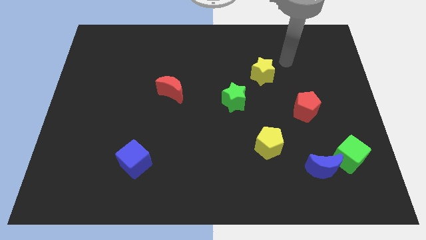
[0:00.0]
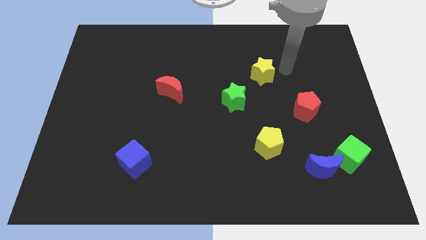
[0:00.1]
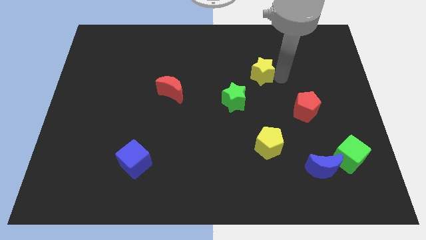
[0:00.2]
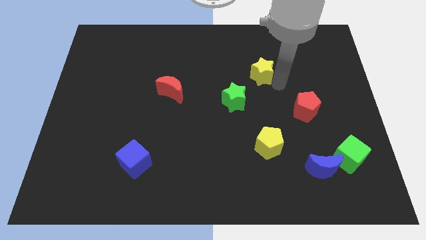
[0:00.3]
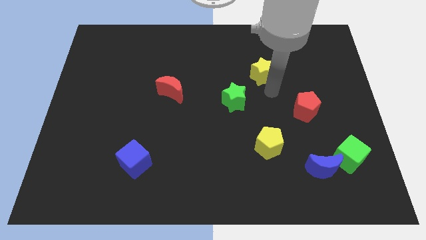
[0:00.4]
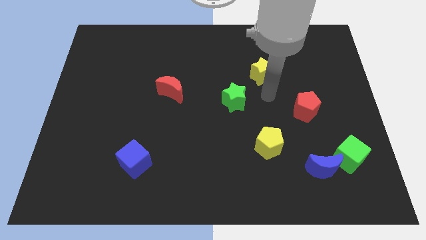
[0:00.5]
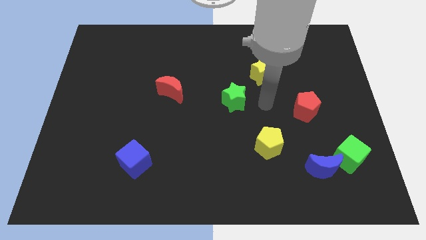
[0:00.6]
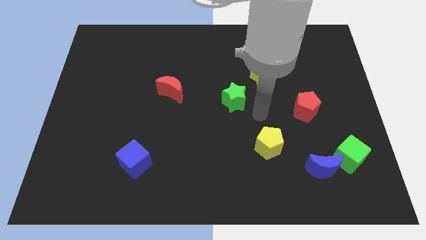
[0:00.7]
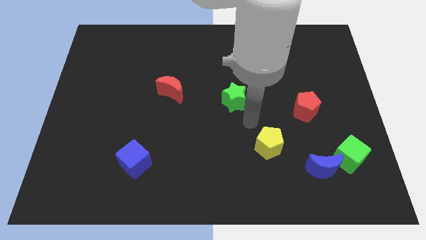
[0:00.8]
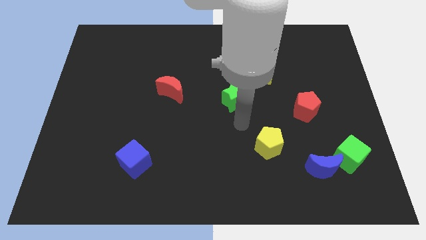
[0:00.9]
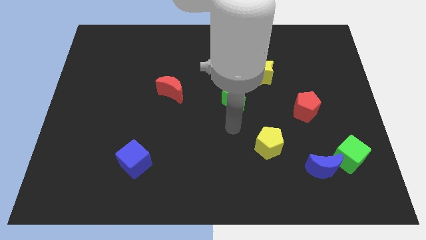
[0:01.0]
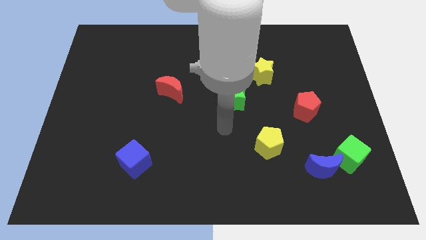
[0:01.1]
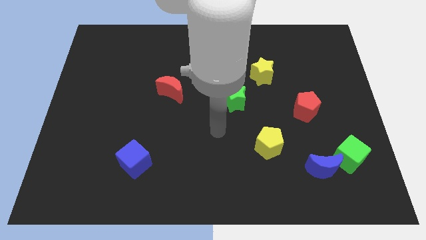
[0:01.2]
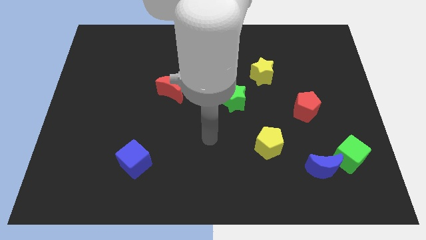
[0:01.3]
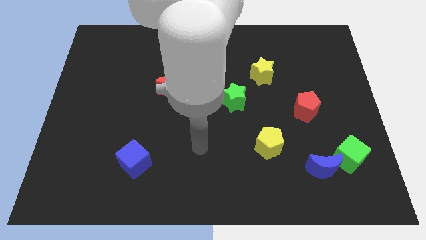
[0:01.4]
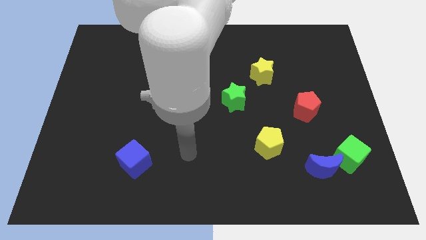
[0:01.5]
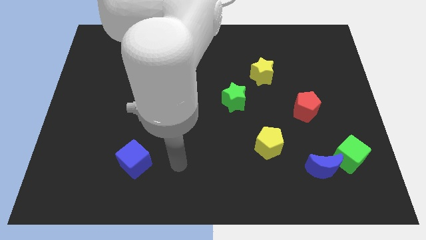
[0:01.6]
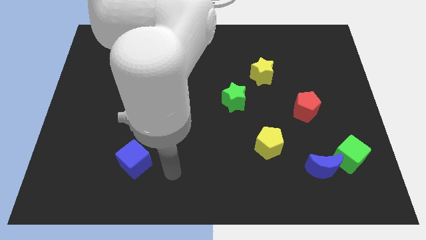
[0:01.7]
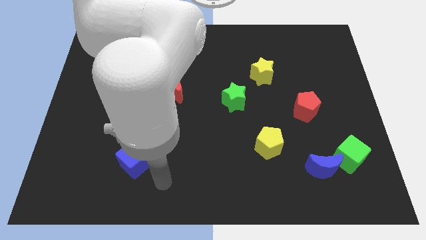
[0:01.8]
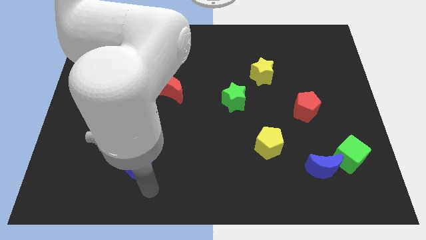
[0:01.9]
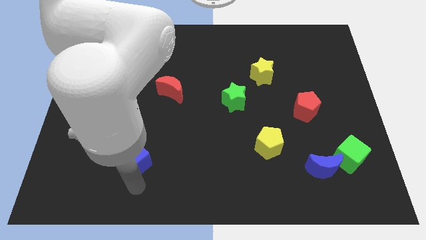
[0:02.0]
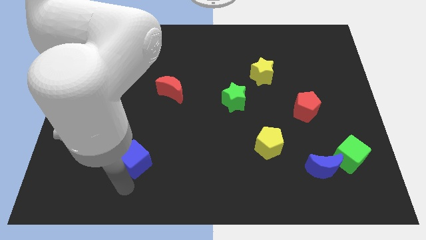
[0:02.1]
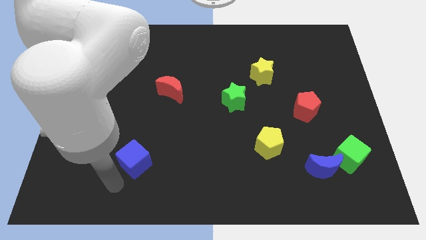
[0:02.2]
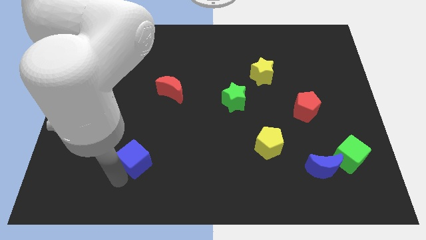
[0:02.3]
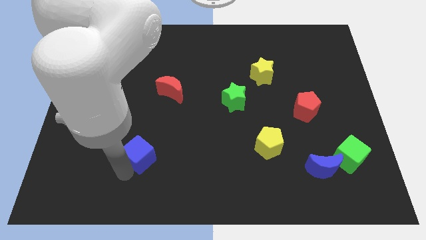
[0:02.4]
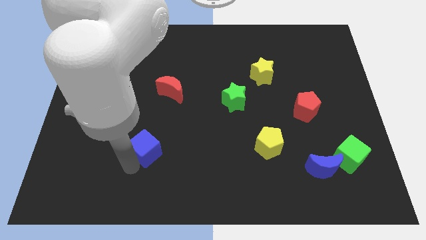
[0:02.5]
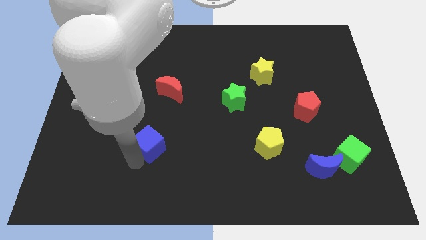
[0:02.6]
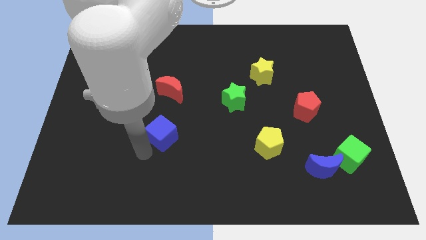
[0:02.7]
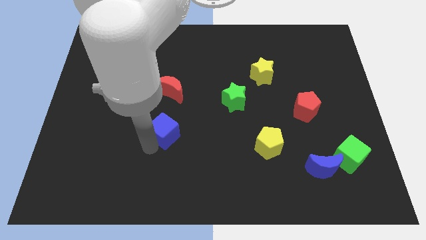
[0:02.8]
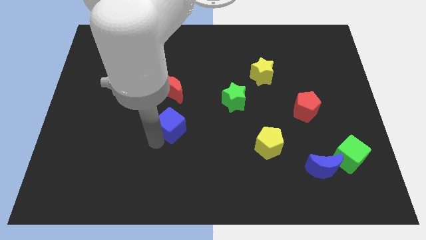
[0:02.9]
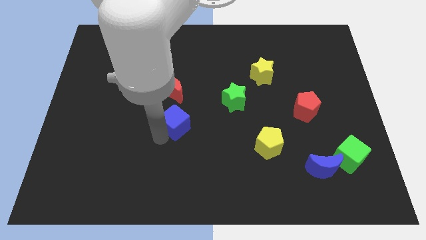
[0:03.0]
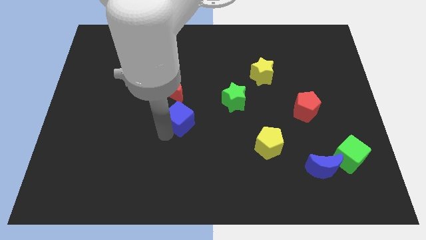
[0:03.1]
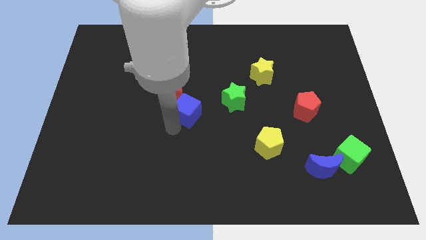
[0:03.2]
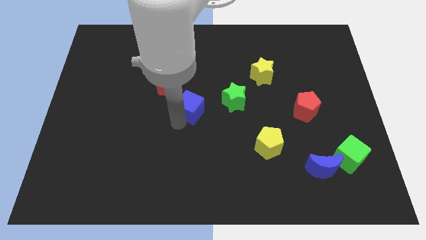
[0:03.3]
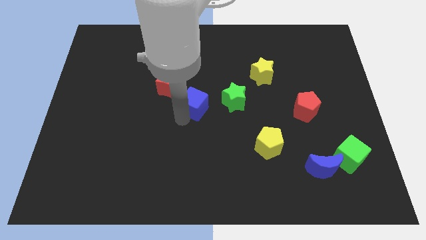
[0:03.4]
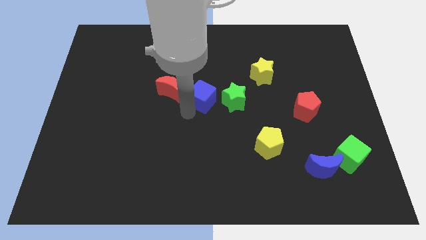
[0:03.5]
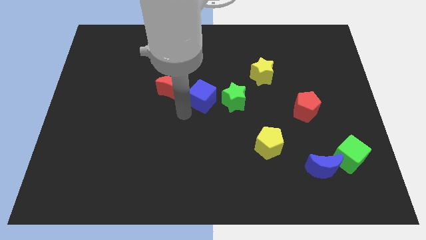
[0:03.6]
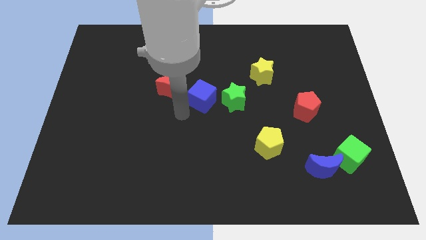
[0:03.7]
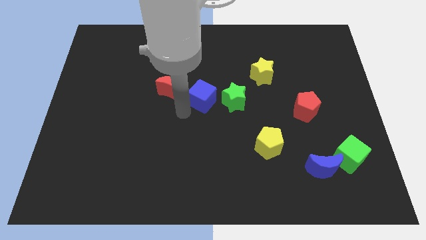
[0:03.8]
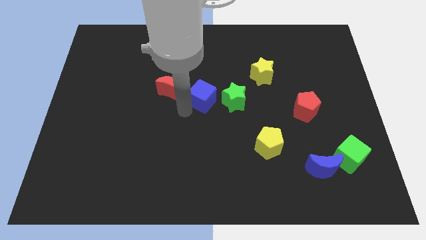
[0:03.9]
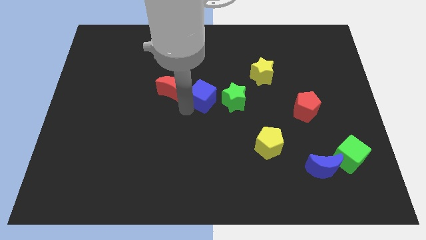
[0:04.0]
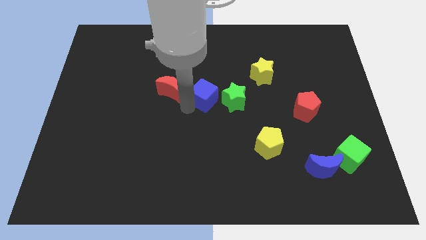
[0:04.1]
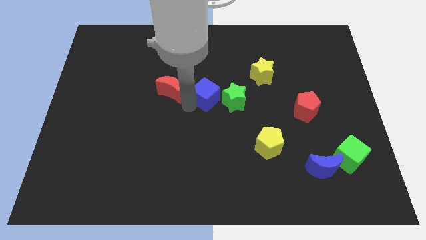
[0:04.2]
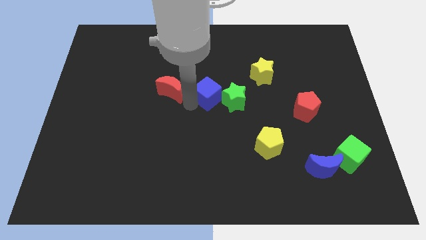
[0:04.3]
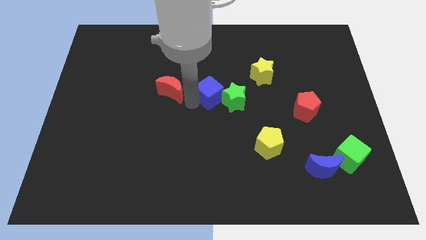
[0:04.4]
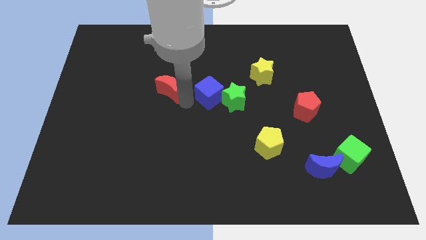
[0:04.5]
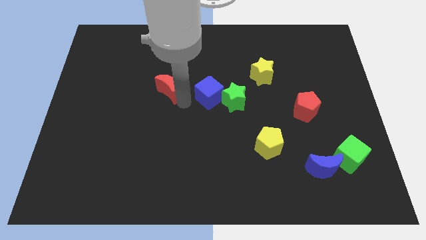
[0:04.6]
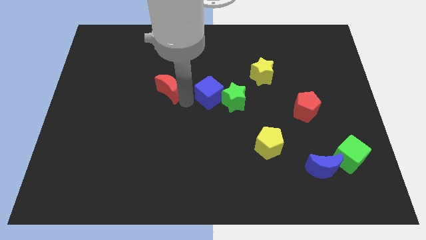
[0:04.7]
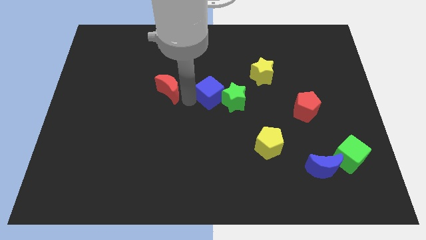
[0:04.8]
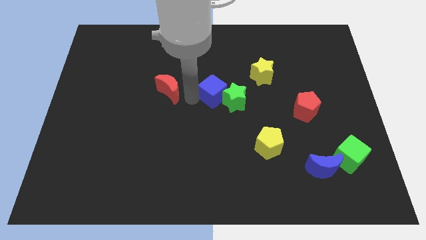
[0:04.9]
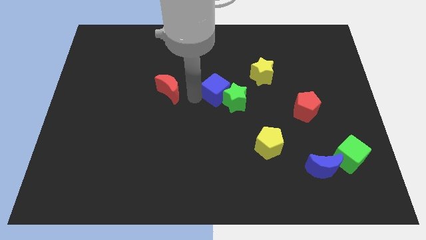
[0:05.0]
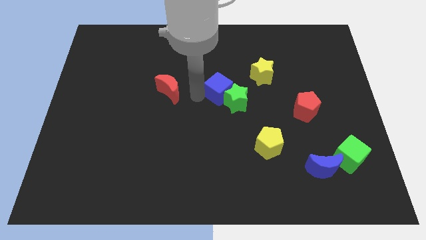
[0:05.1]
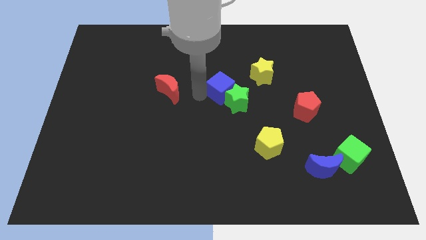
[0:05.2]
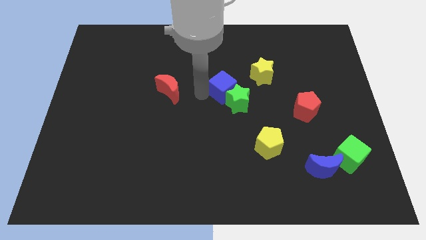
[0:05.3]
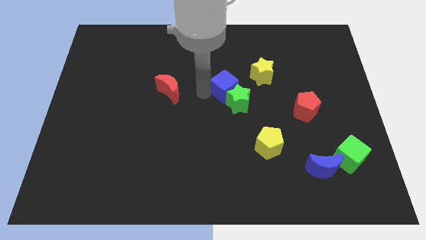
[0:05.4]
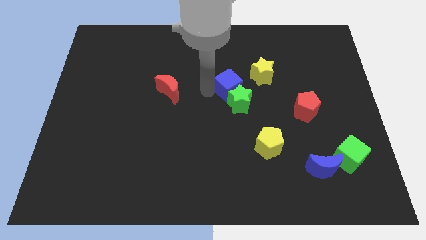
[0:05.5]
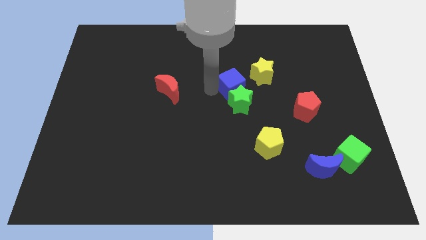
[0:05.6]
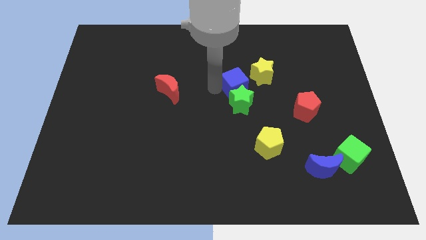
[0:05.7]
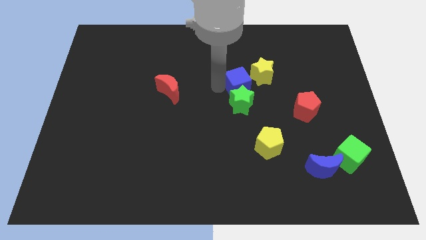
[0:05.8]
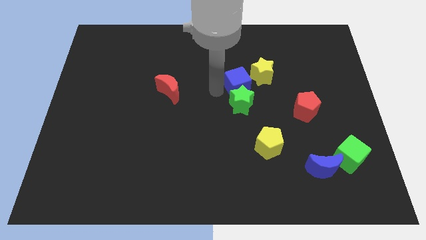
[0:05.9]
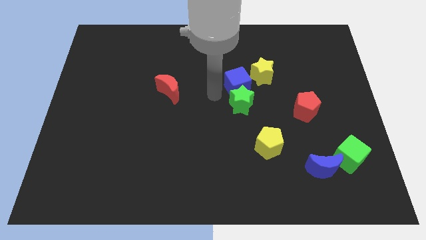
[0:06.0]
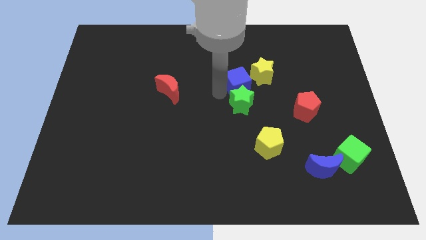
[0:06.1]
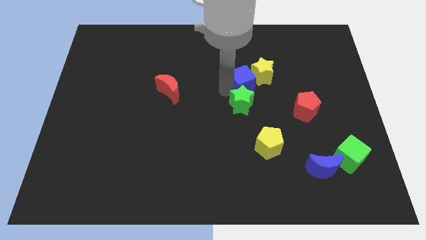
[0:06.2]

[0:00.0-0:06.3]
slide the blue cube next to the yellow star
